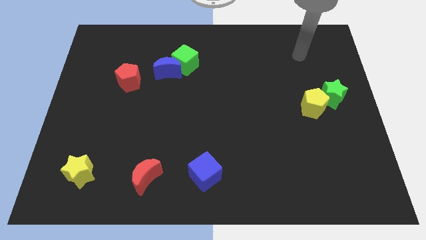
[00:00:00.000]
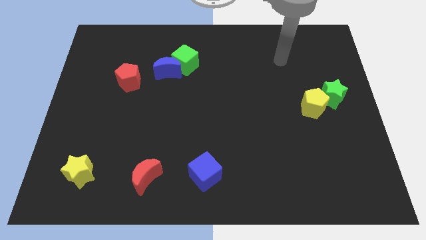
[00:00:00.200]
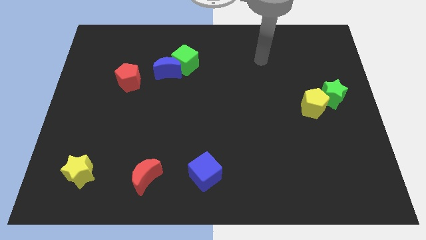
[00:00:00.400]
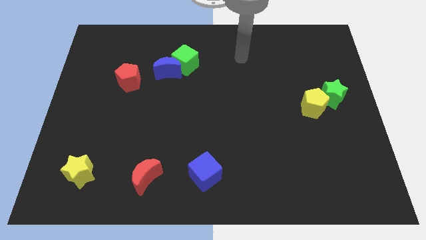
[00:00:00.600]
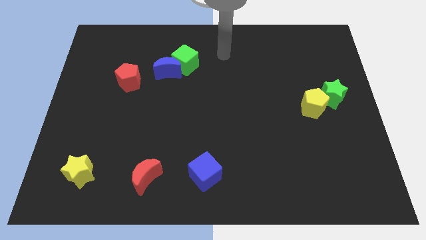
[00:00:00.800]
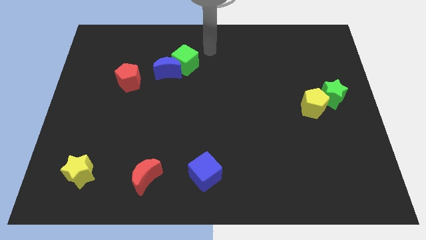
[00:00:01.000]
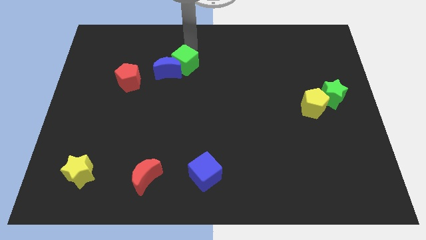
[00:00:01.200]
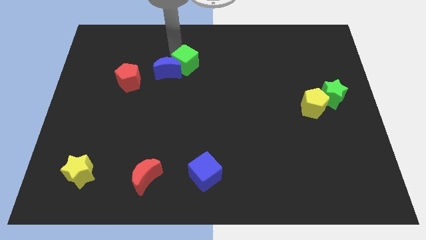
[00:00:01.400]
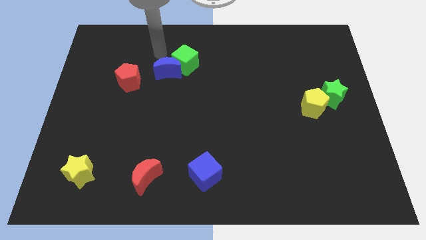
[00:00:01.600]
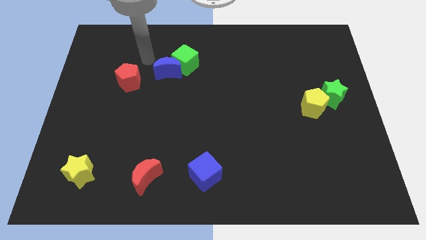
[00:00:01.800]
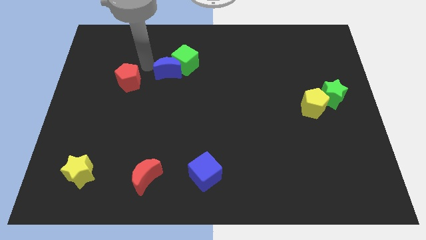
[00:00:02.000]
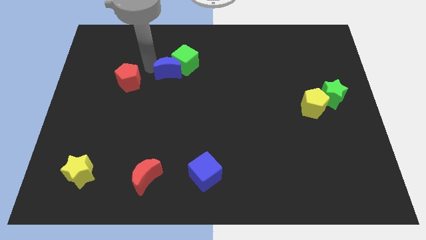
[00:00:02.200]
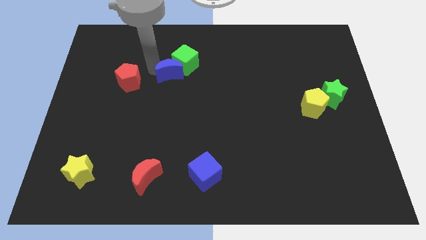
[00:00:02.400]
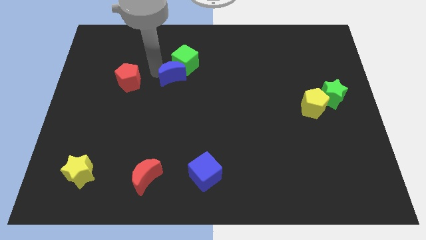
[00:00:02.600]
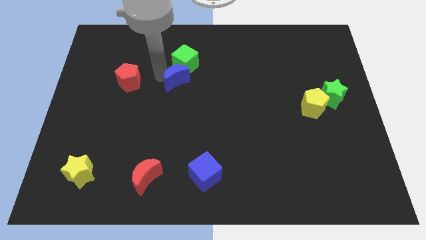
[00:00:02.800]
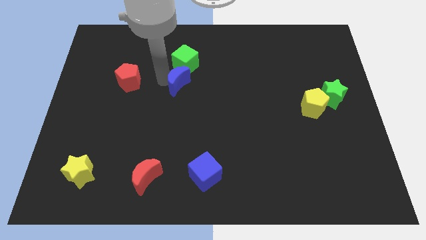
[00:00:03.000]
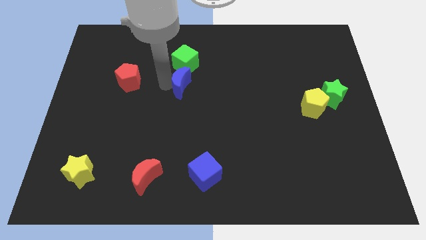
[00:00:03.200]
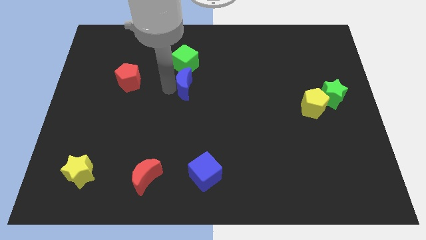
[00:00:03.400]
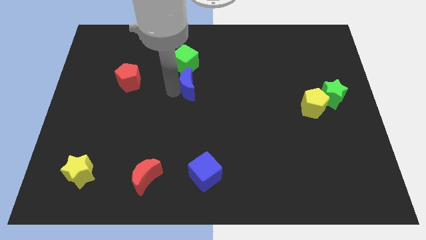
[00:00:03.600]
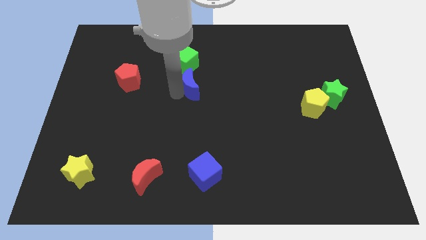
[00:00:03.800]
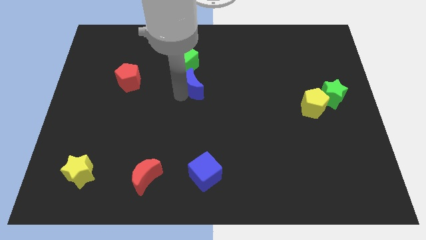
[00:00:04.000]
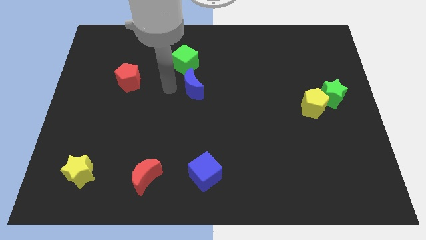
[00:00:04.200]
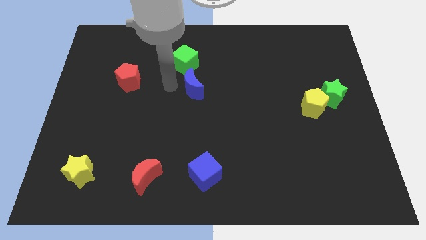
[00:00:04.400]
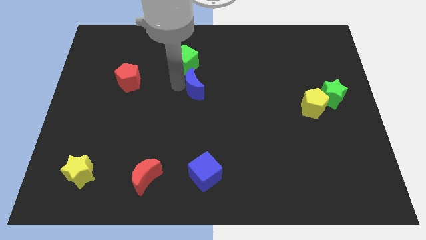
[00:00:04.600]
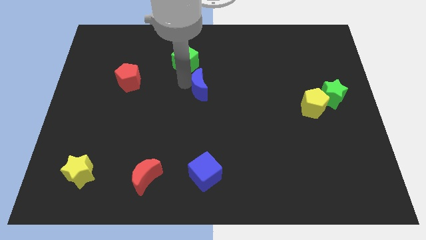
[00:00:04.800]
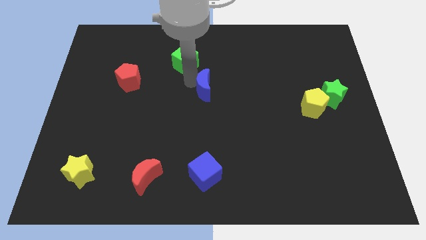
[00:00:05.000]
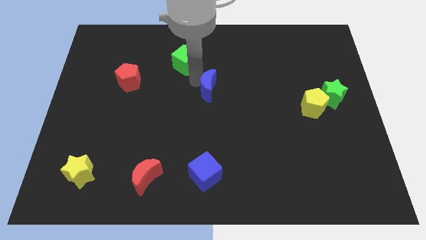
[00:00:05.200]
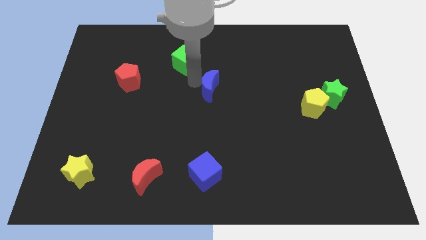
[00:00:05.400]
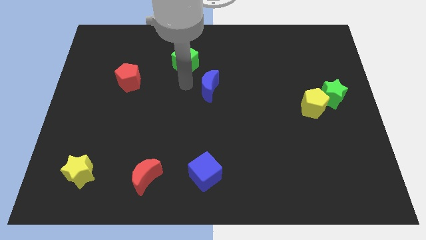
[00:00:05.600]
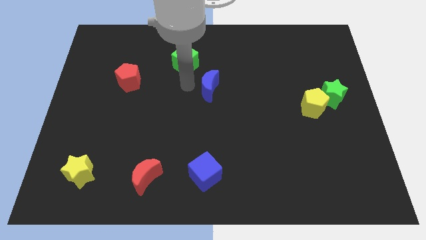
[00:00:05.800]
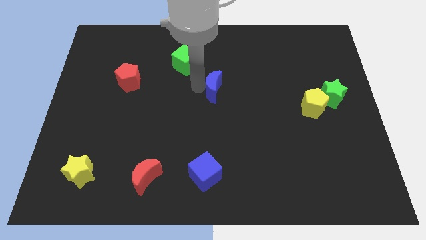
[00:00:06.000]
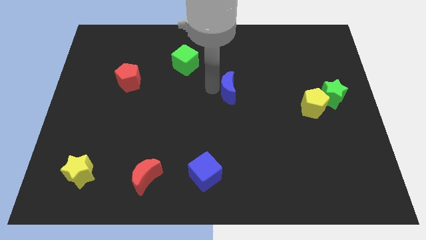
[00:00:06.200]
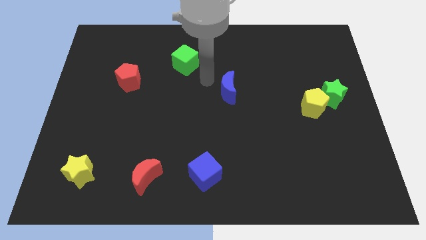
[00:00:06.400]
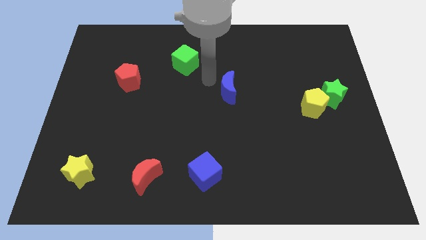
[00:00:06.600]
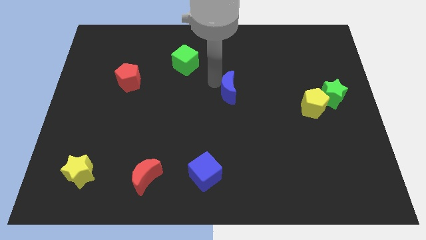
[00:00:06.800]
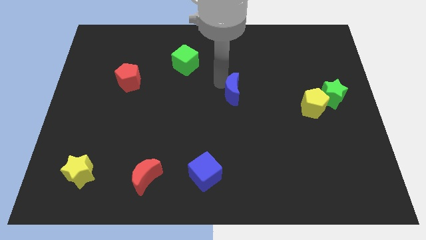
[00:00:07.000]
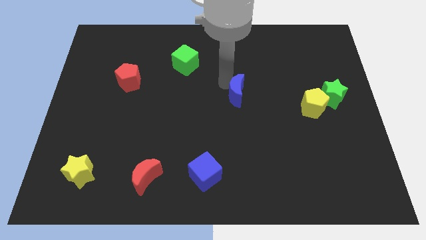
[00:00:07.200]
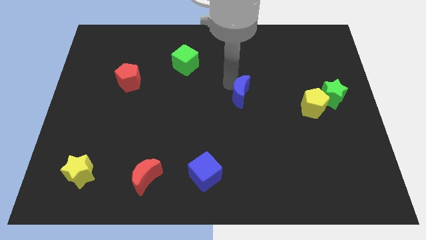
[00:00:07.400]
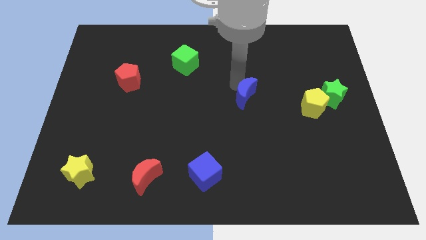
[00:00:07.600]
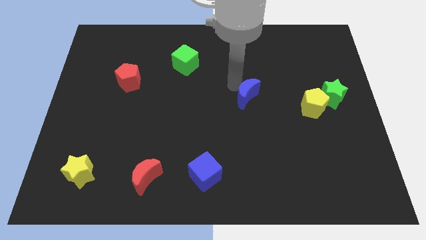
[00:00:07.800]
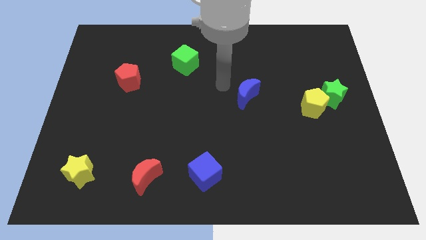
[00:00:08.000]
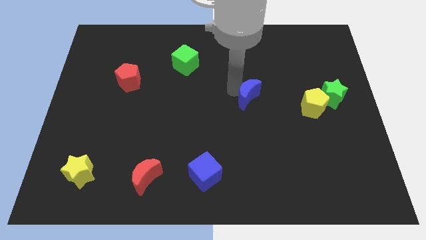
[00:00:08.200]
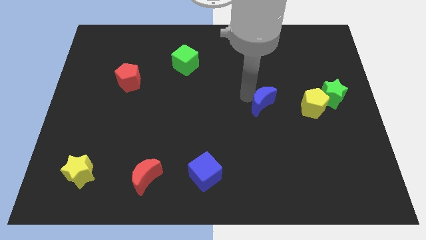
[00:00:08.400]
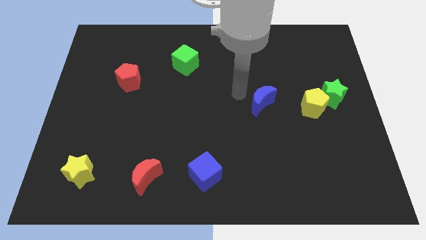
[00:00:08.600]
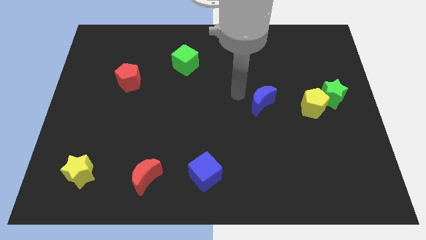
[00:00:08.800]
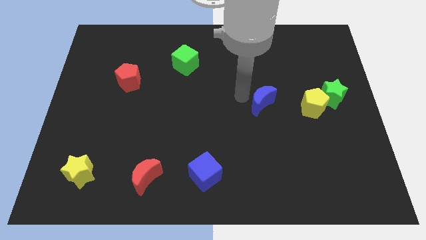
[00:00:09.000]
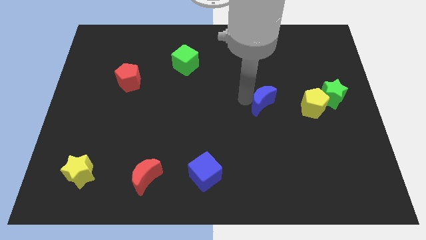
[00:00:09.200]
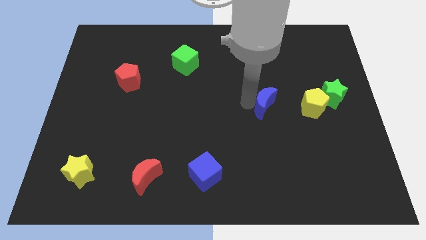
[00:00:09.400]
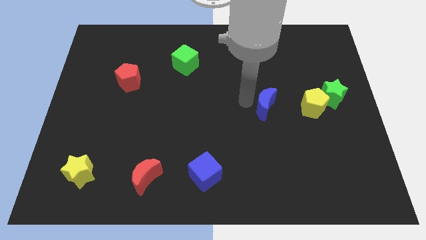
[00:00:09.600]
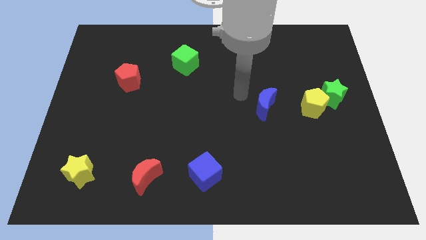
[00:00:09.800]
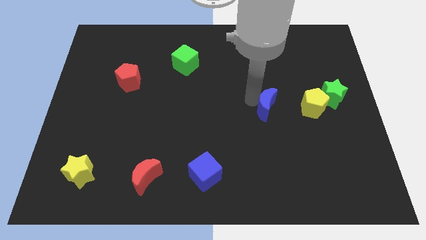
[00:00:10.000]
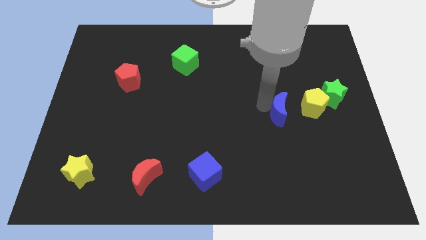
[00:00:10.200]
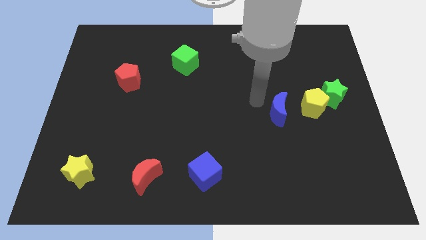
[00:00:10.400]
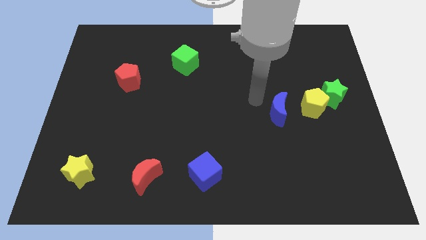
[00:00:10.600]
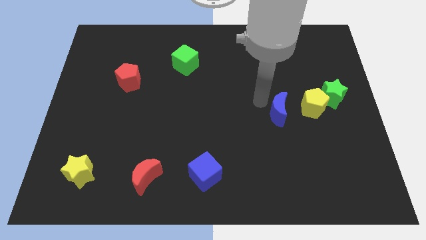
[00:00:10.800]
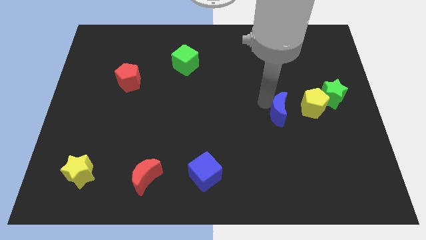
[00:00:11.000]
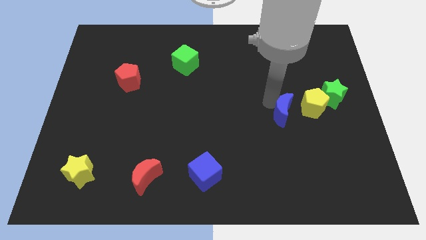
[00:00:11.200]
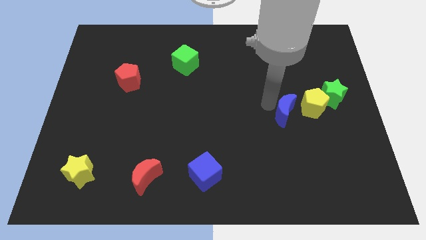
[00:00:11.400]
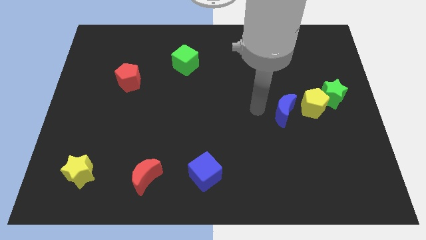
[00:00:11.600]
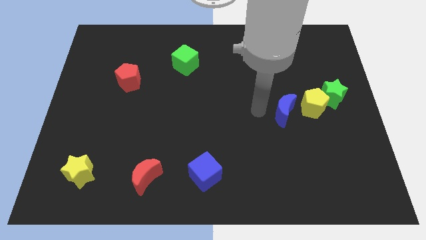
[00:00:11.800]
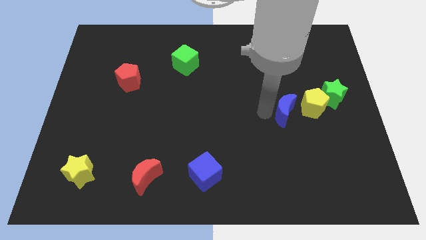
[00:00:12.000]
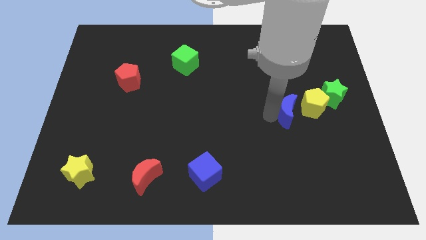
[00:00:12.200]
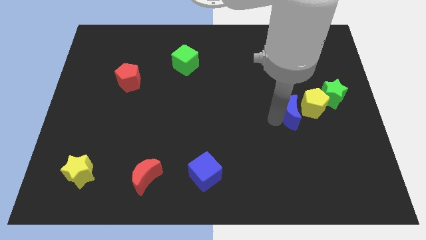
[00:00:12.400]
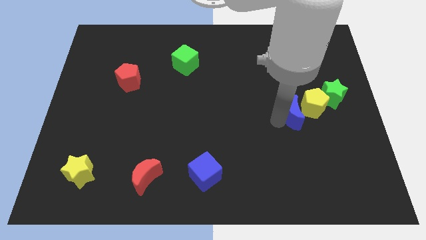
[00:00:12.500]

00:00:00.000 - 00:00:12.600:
slide the blue moon to the bottom left side of the green star
